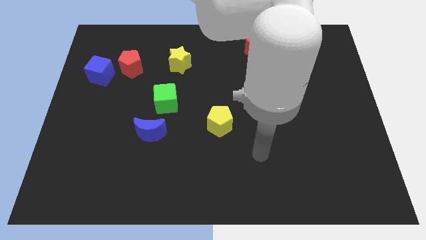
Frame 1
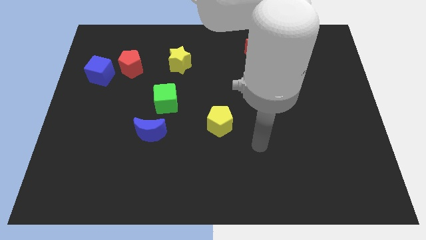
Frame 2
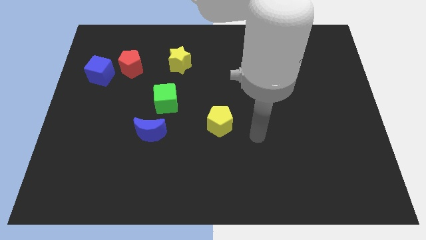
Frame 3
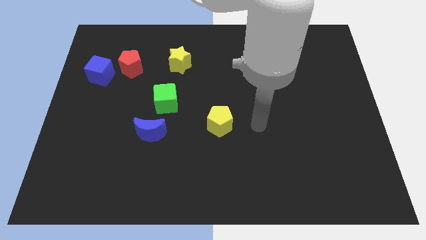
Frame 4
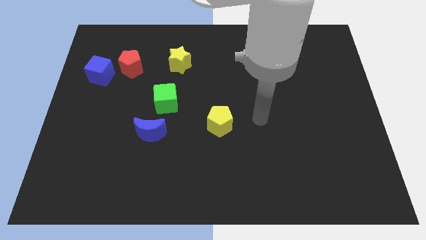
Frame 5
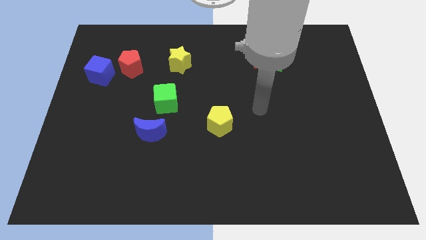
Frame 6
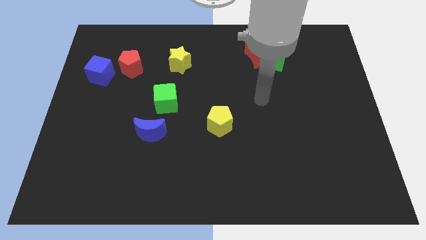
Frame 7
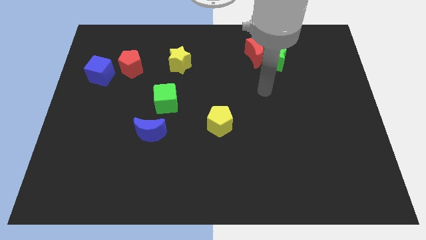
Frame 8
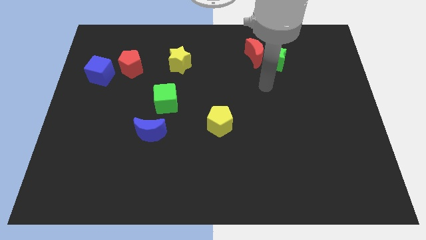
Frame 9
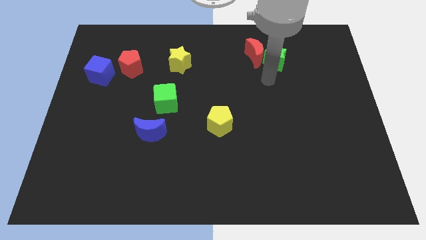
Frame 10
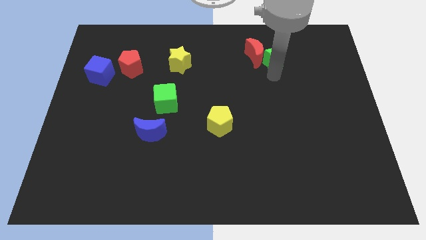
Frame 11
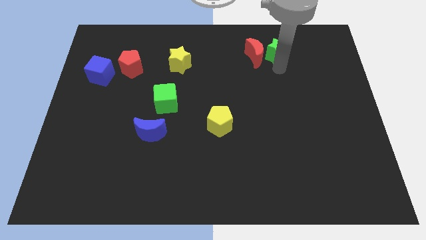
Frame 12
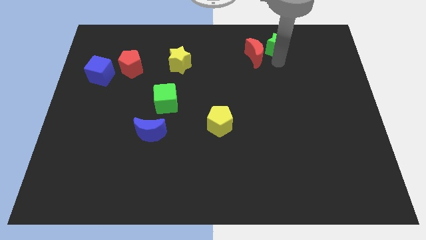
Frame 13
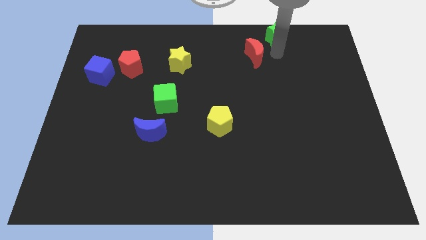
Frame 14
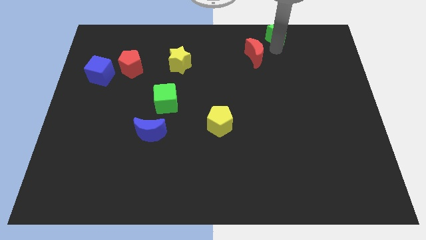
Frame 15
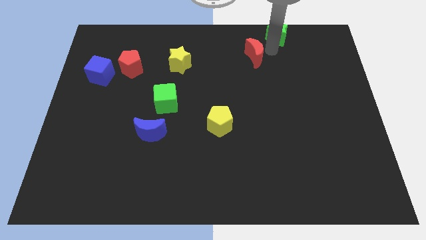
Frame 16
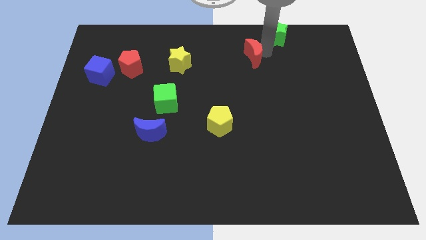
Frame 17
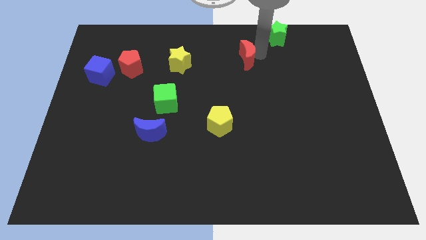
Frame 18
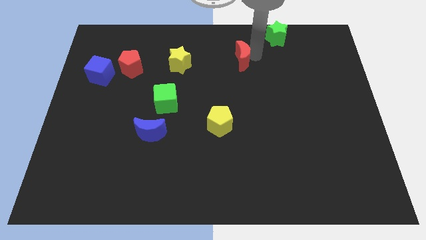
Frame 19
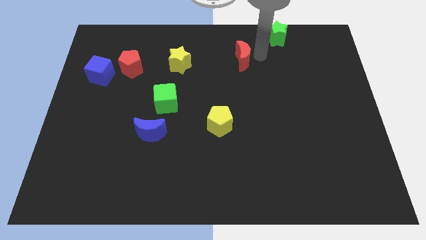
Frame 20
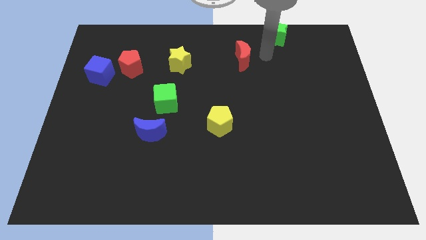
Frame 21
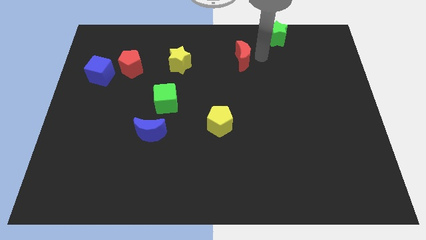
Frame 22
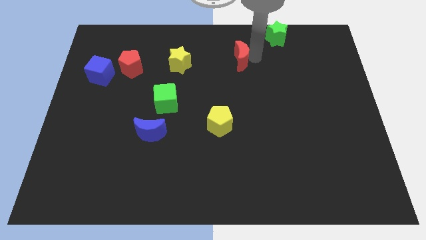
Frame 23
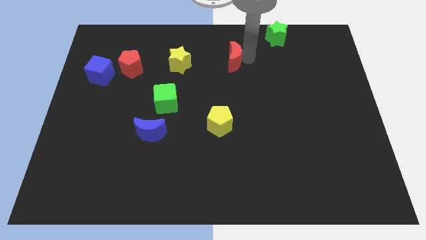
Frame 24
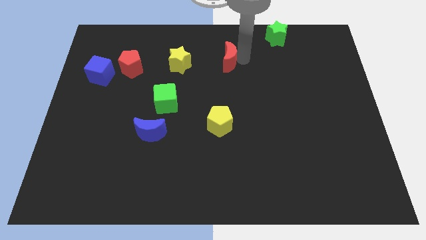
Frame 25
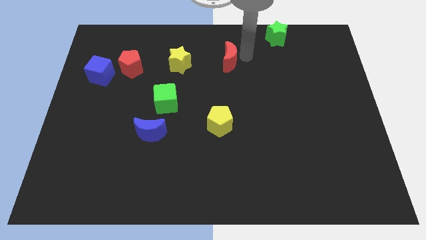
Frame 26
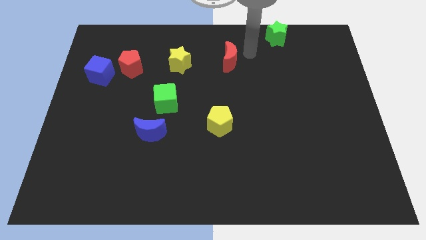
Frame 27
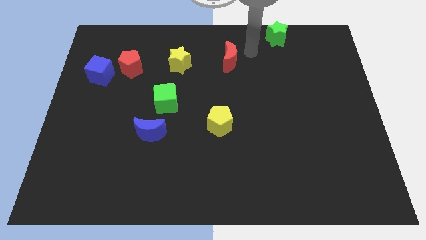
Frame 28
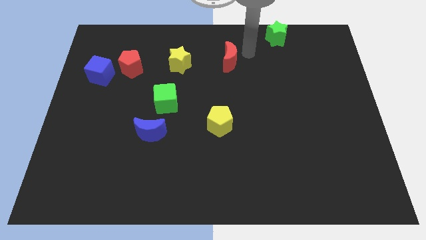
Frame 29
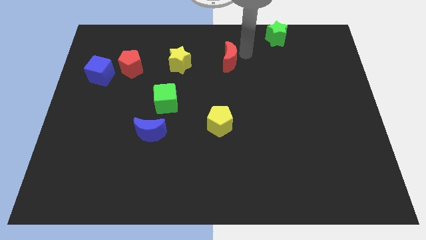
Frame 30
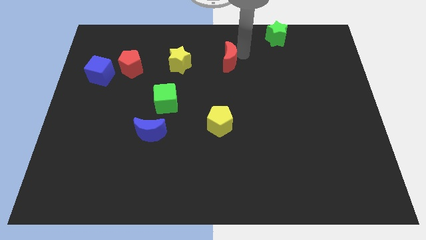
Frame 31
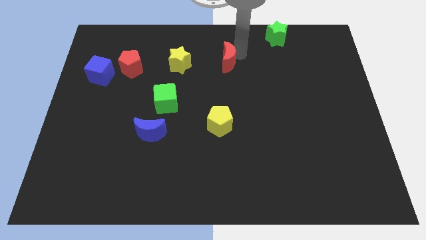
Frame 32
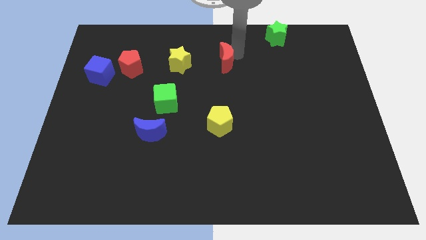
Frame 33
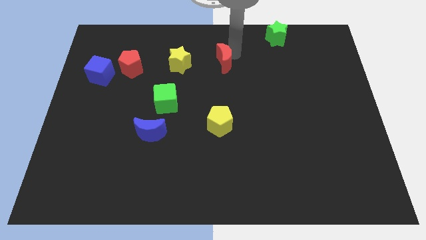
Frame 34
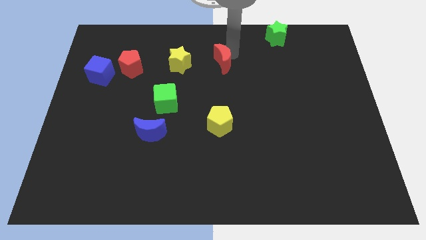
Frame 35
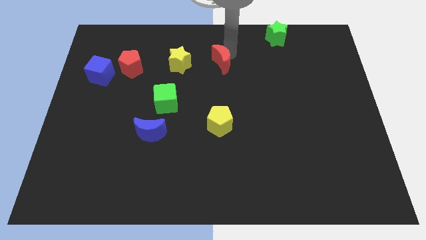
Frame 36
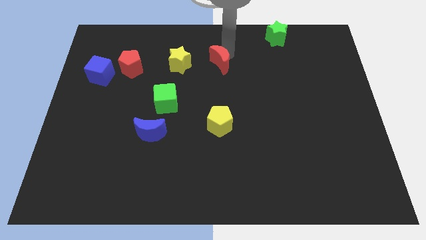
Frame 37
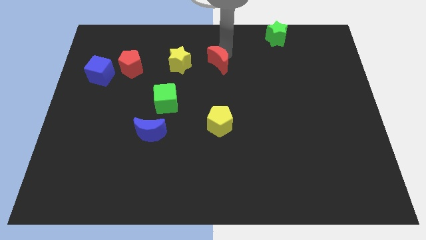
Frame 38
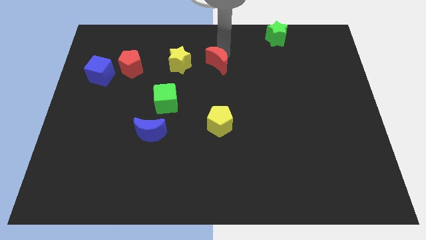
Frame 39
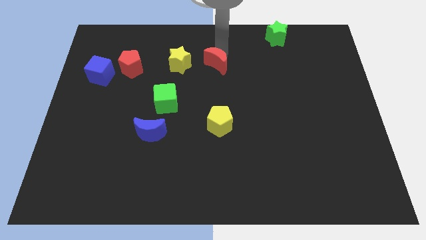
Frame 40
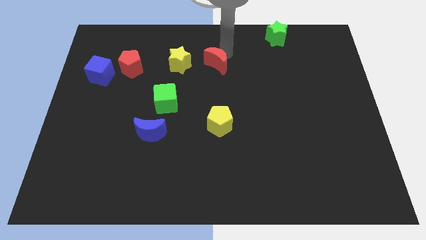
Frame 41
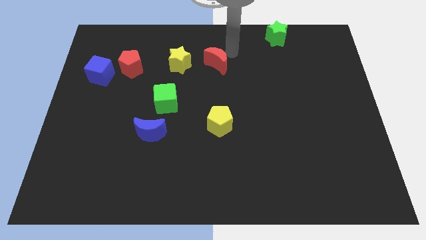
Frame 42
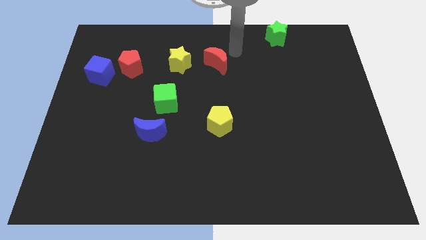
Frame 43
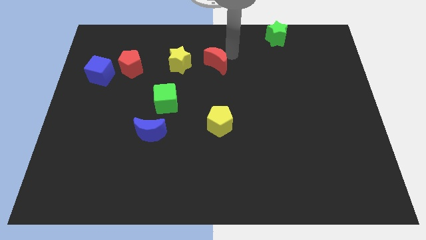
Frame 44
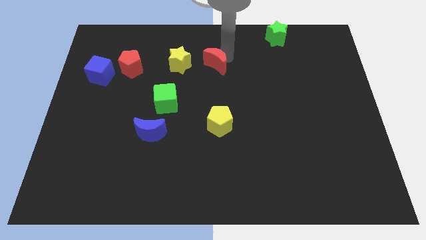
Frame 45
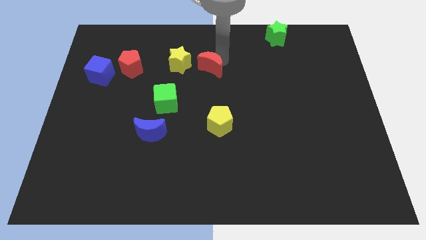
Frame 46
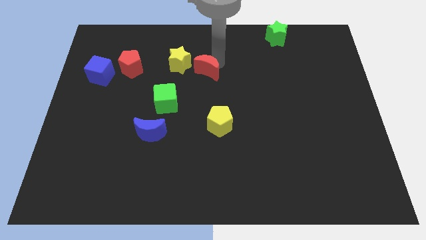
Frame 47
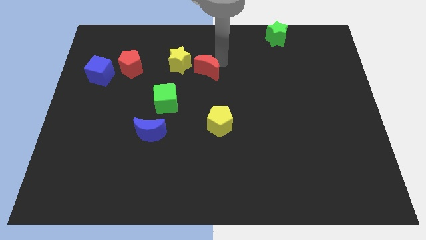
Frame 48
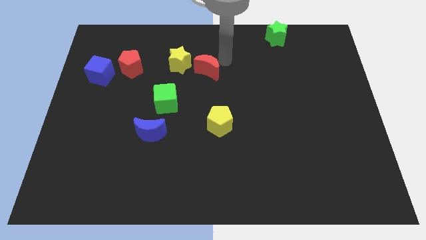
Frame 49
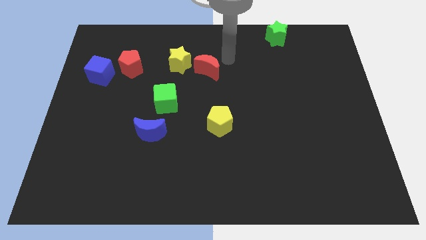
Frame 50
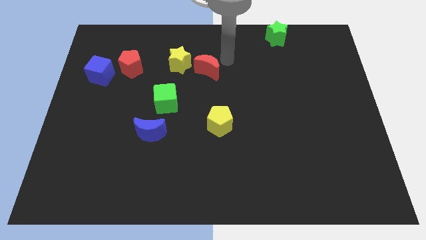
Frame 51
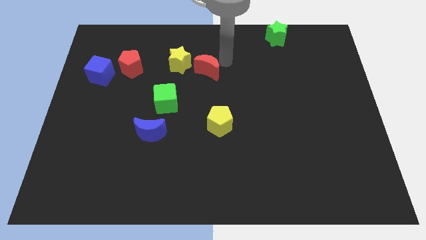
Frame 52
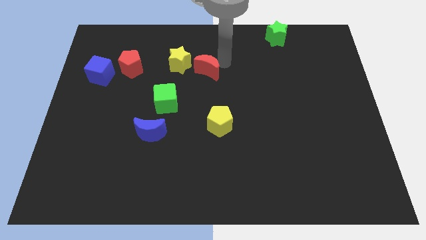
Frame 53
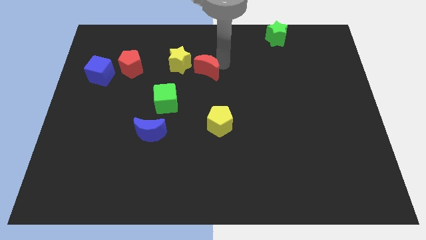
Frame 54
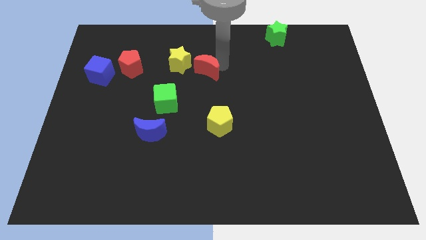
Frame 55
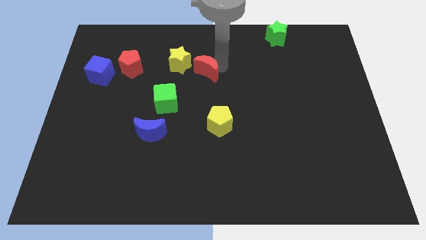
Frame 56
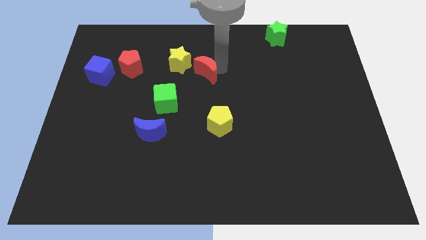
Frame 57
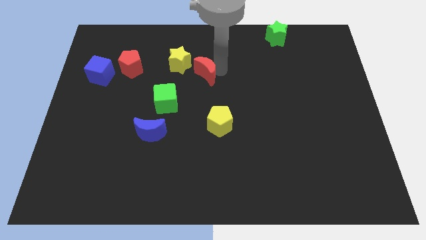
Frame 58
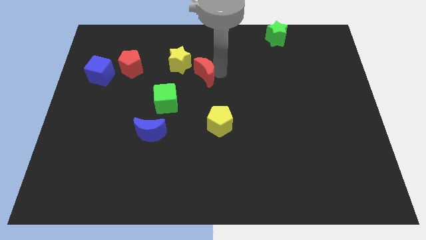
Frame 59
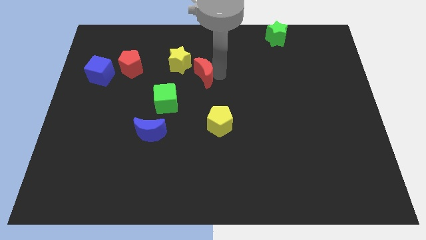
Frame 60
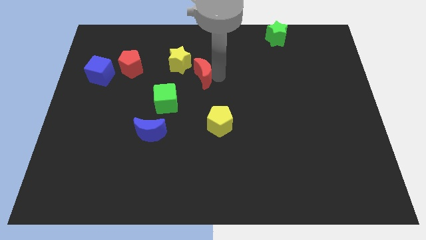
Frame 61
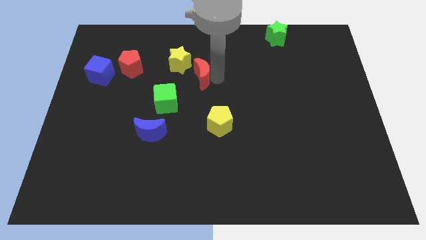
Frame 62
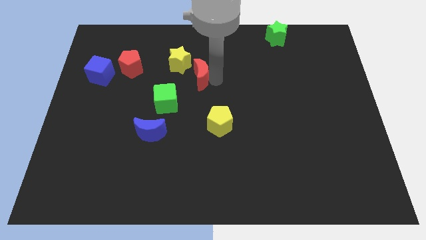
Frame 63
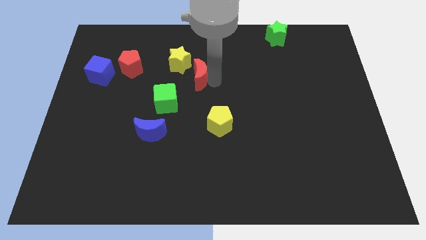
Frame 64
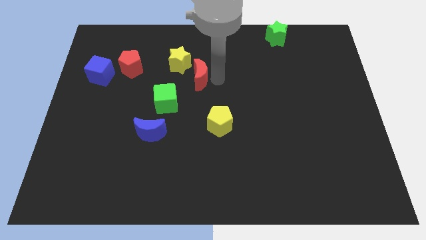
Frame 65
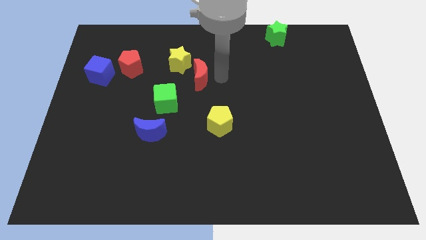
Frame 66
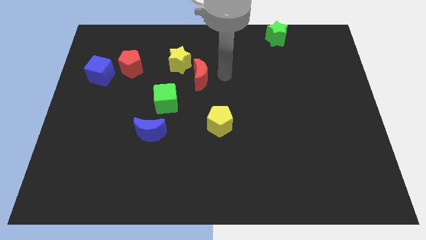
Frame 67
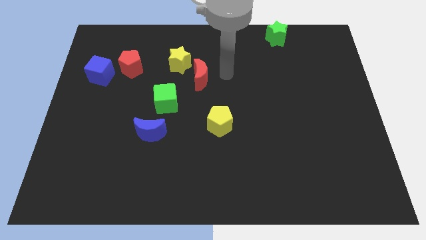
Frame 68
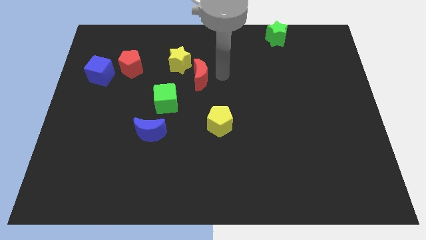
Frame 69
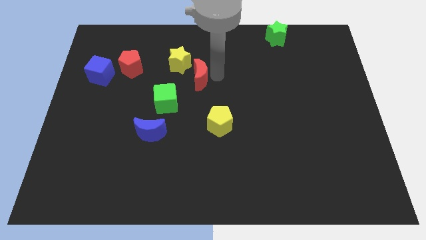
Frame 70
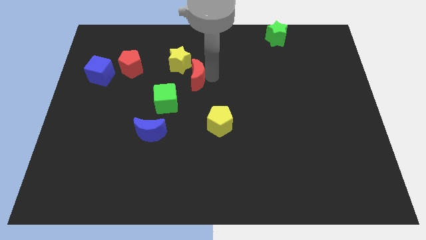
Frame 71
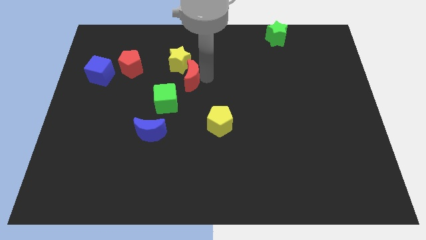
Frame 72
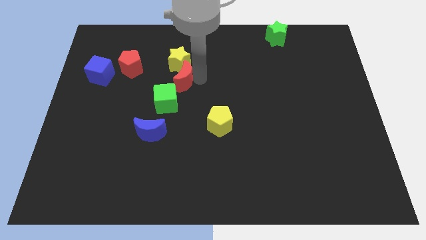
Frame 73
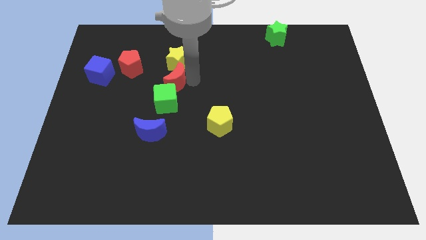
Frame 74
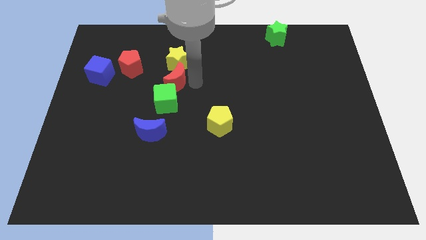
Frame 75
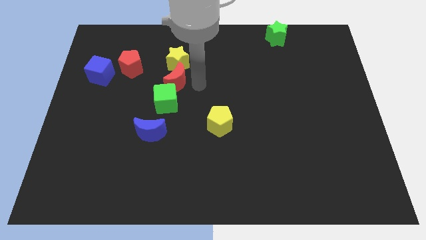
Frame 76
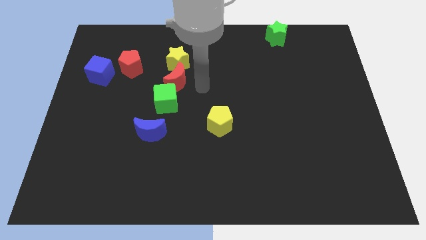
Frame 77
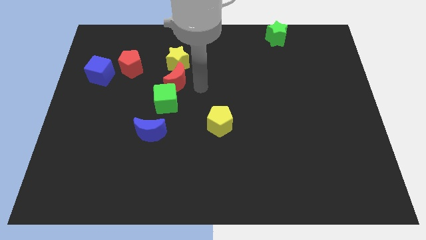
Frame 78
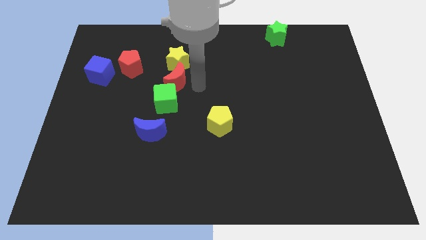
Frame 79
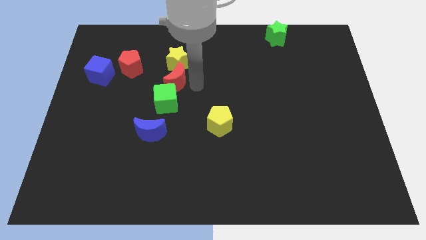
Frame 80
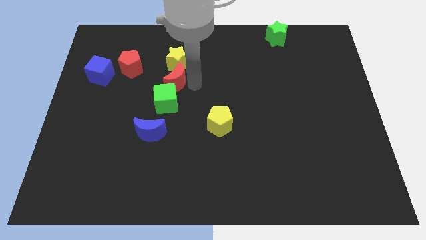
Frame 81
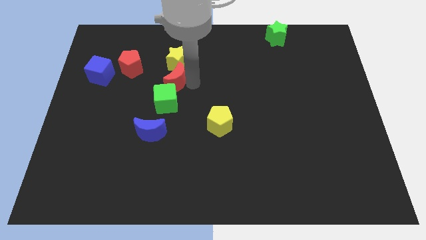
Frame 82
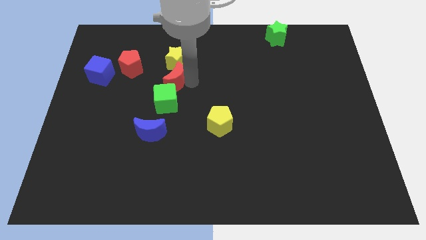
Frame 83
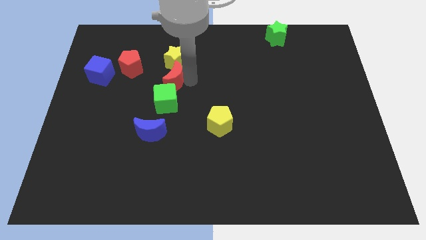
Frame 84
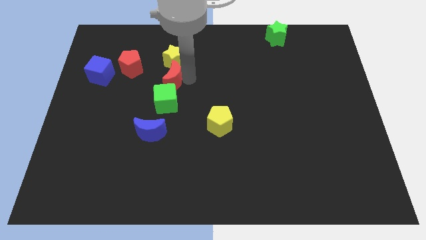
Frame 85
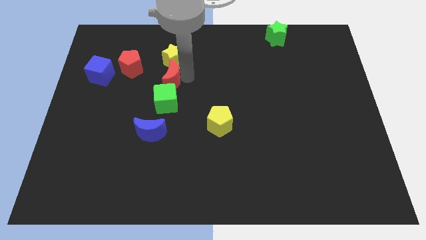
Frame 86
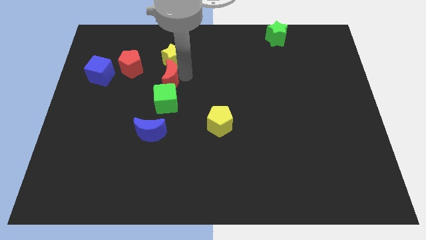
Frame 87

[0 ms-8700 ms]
push the red moon to the bottom right of the red pentagon
